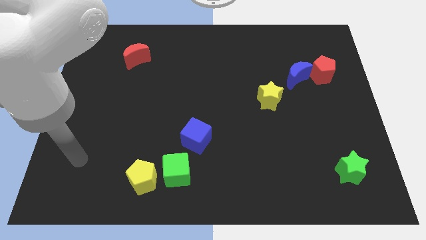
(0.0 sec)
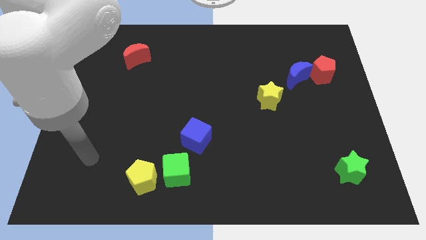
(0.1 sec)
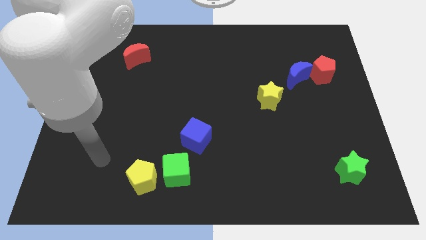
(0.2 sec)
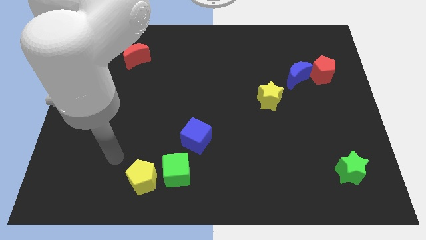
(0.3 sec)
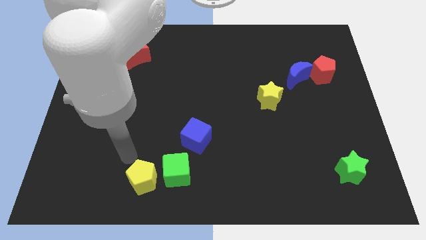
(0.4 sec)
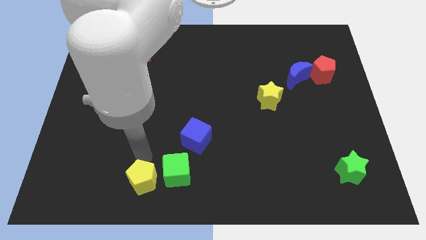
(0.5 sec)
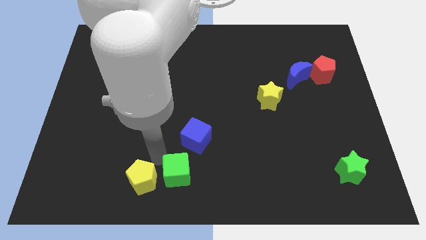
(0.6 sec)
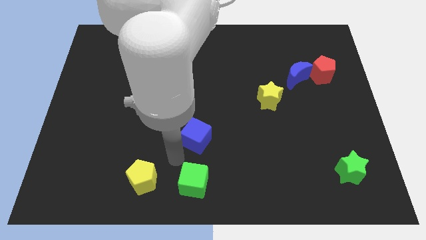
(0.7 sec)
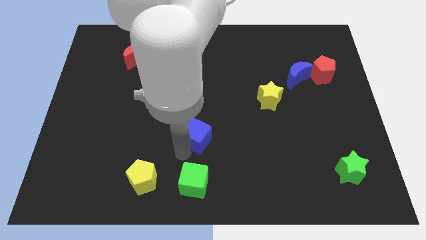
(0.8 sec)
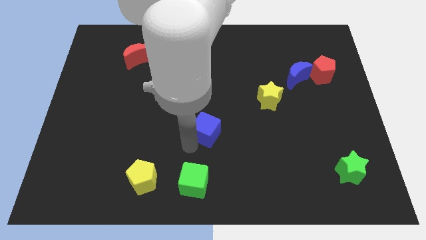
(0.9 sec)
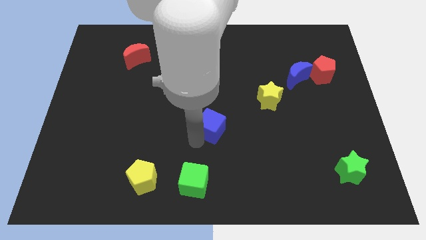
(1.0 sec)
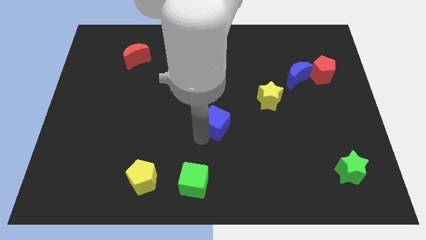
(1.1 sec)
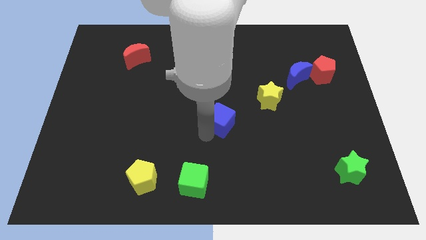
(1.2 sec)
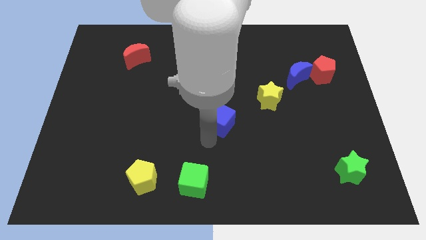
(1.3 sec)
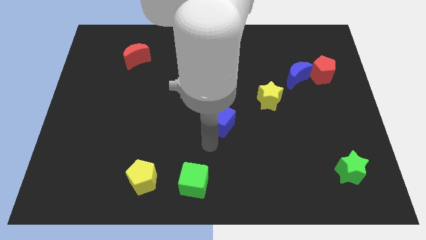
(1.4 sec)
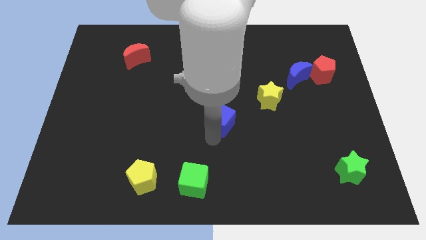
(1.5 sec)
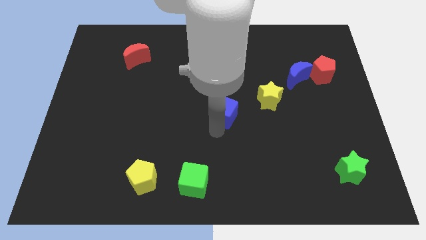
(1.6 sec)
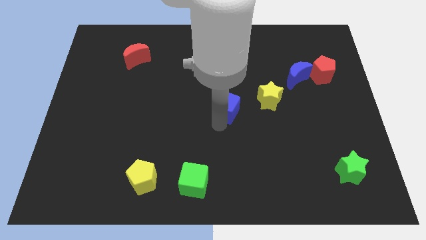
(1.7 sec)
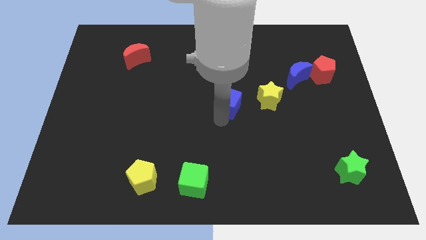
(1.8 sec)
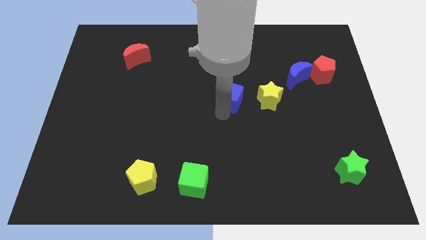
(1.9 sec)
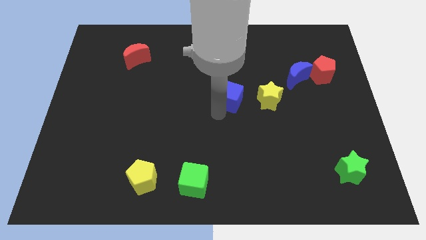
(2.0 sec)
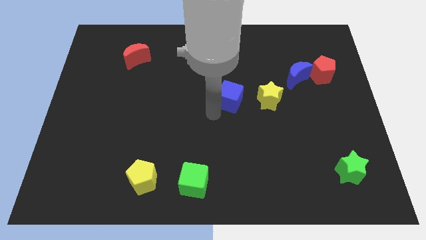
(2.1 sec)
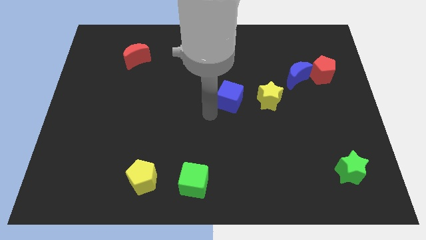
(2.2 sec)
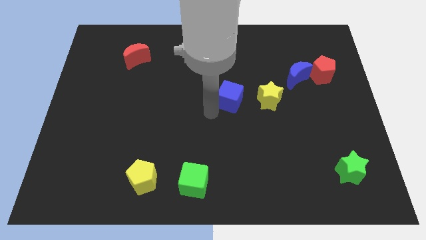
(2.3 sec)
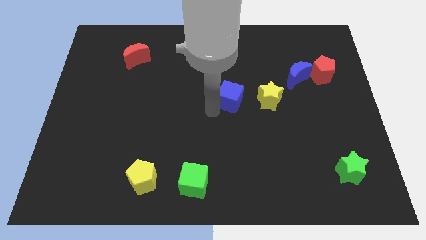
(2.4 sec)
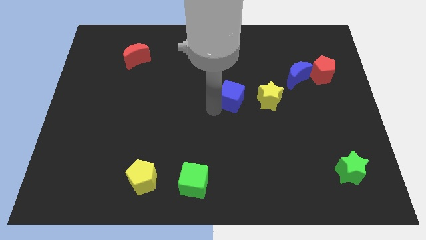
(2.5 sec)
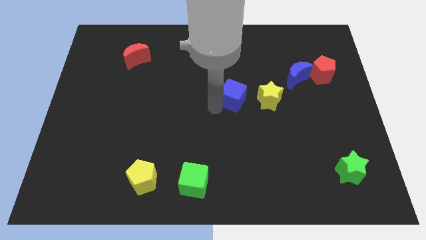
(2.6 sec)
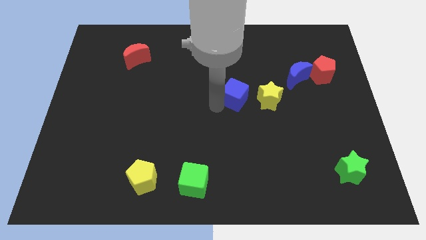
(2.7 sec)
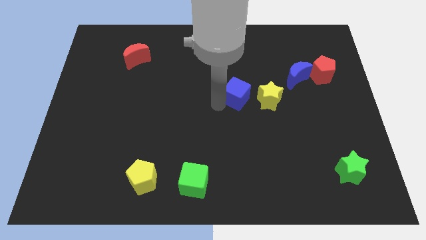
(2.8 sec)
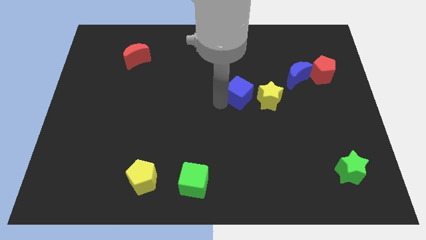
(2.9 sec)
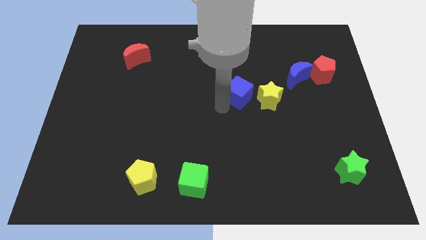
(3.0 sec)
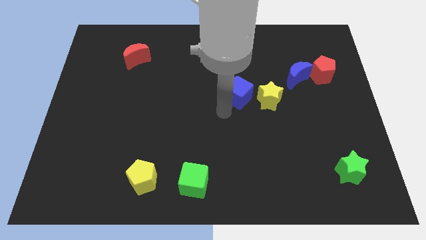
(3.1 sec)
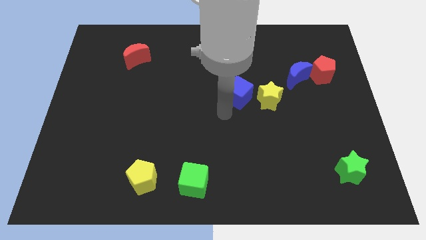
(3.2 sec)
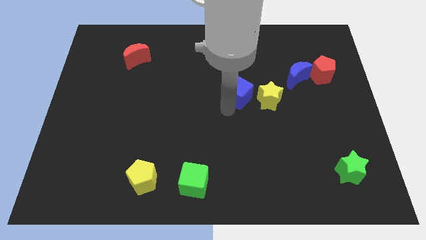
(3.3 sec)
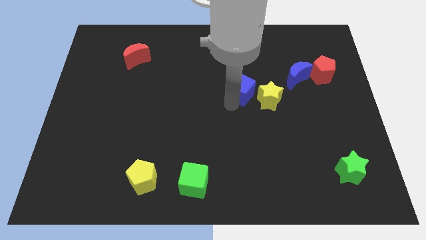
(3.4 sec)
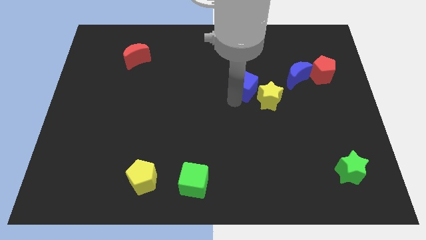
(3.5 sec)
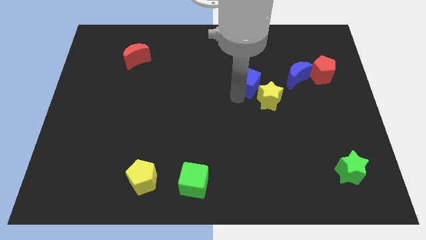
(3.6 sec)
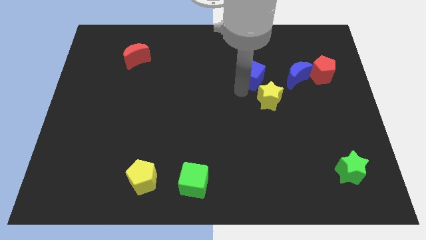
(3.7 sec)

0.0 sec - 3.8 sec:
push the blue cube up and to the right diagonally

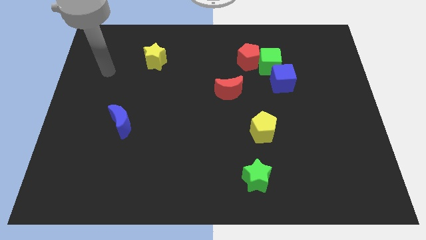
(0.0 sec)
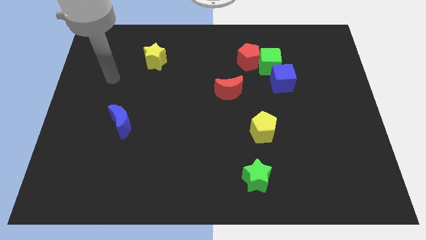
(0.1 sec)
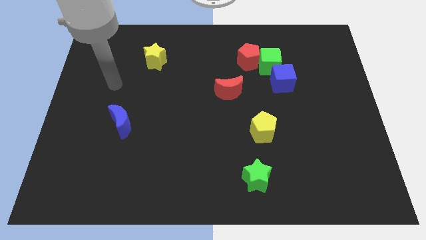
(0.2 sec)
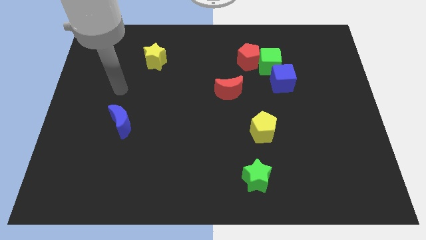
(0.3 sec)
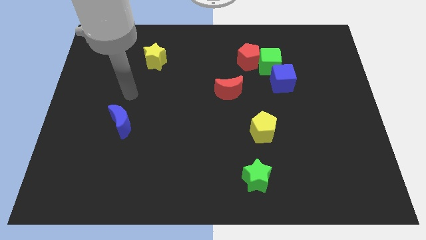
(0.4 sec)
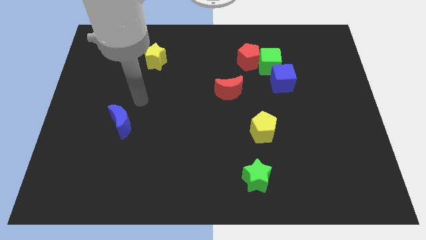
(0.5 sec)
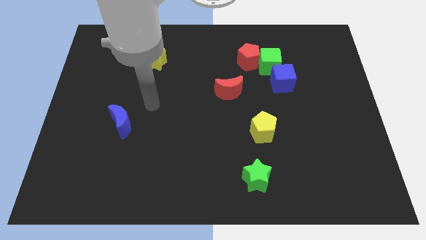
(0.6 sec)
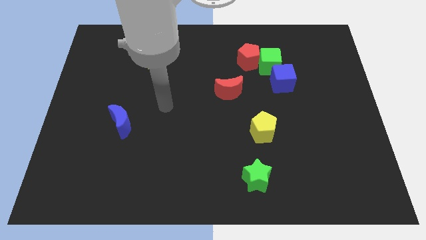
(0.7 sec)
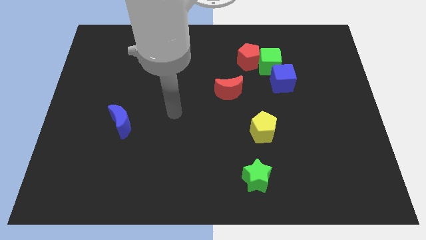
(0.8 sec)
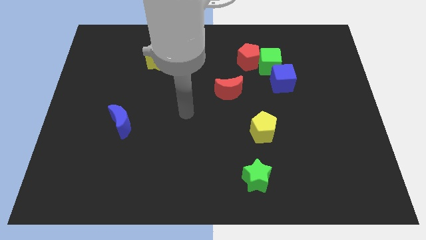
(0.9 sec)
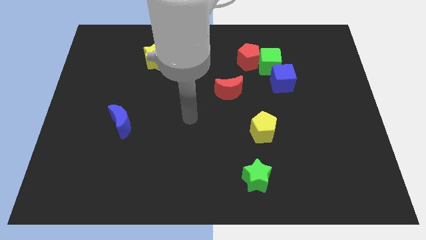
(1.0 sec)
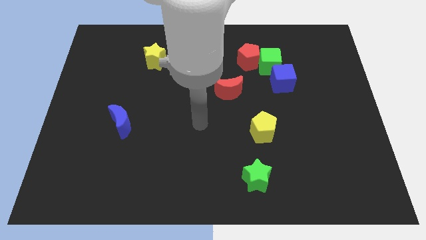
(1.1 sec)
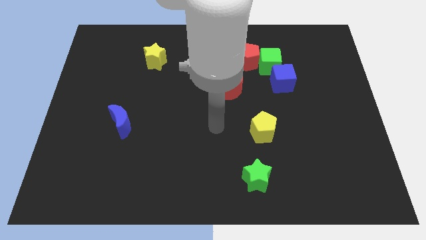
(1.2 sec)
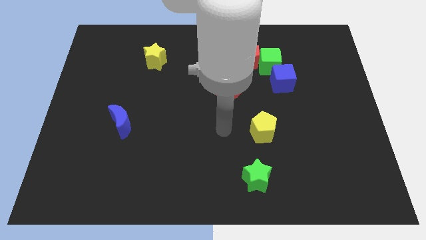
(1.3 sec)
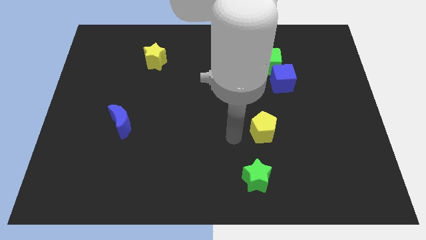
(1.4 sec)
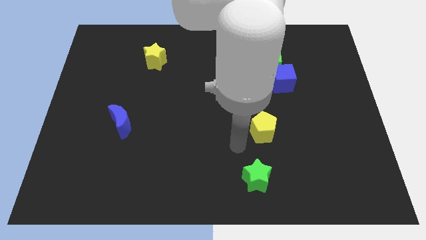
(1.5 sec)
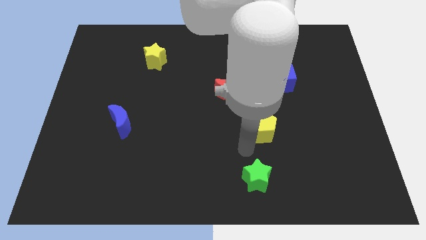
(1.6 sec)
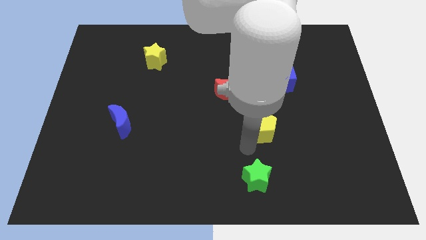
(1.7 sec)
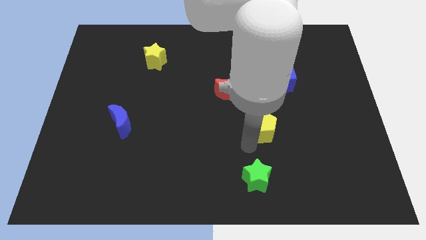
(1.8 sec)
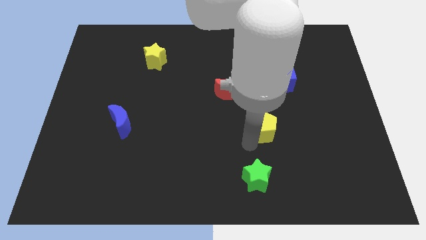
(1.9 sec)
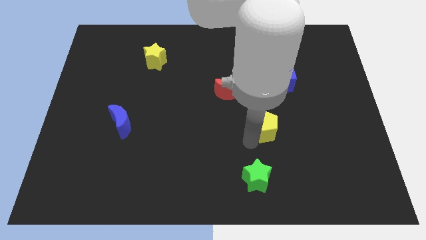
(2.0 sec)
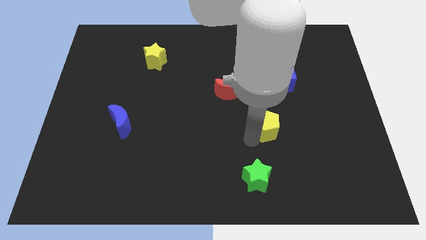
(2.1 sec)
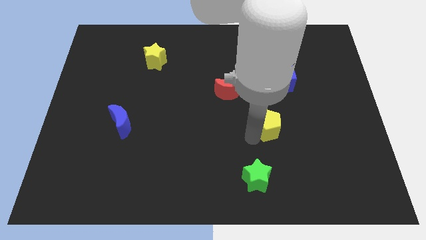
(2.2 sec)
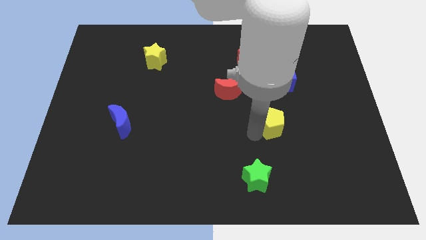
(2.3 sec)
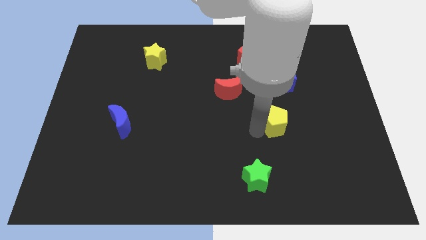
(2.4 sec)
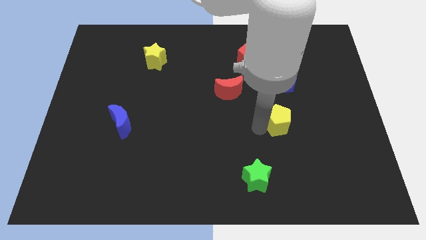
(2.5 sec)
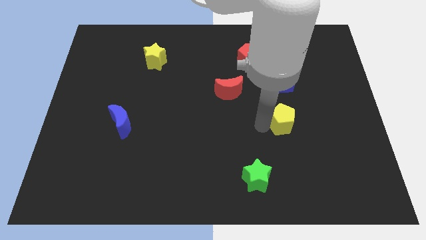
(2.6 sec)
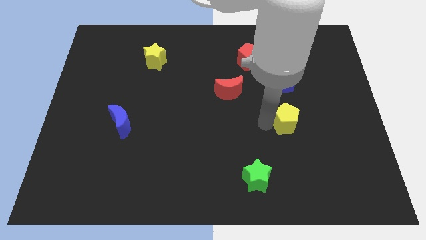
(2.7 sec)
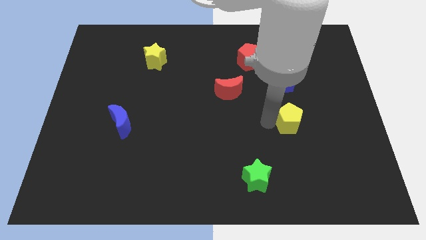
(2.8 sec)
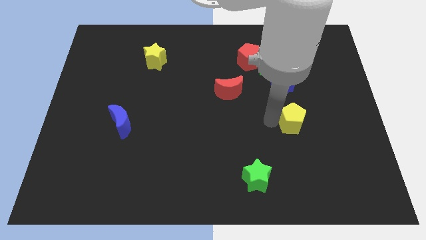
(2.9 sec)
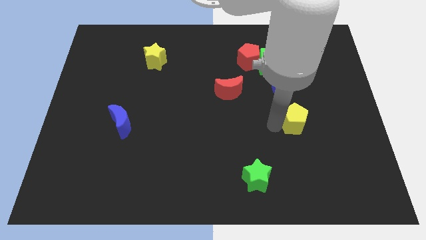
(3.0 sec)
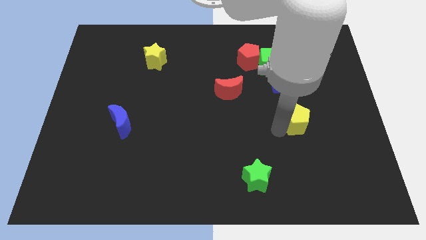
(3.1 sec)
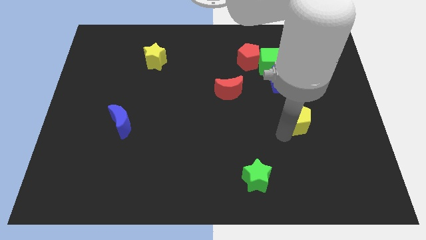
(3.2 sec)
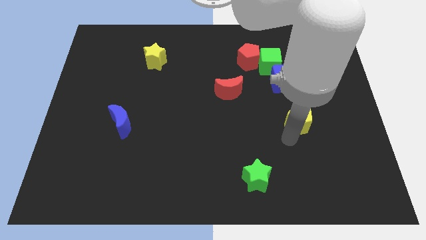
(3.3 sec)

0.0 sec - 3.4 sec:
move the yellow pentagon a little bit upwards and then right

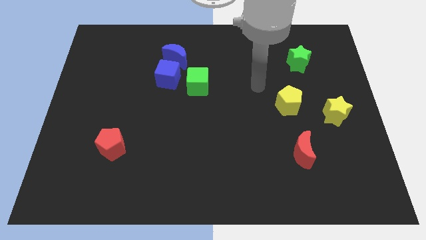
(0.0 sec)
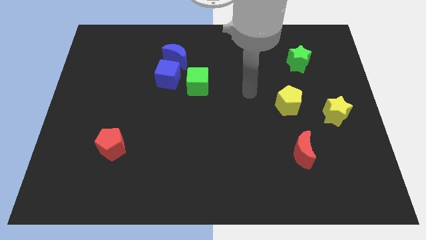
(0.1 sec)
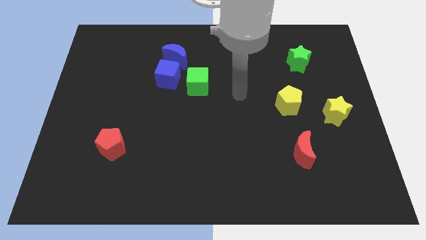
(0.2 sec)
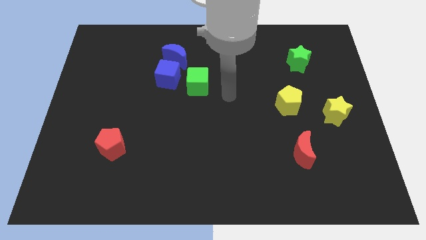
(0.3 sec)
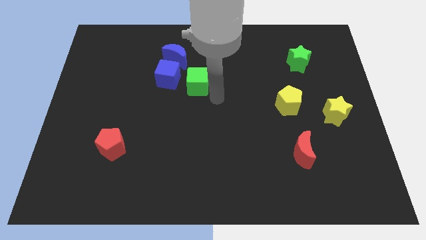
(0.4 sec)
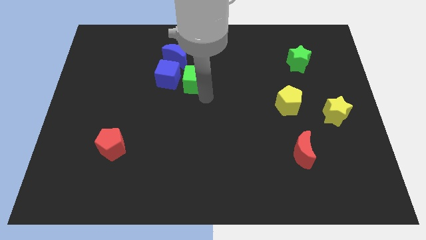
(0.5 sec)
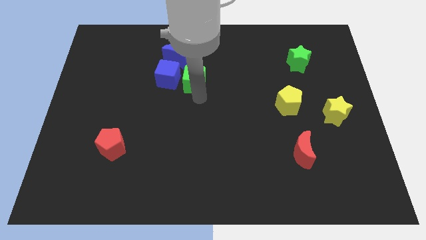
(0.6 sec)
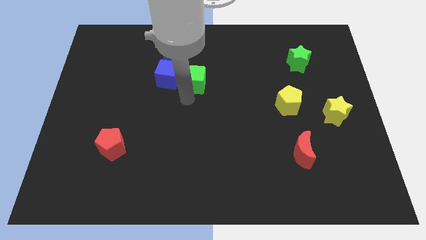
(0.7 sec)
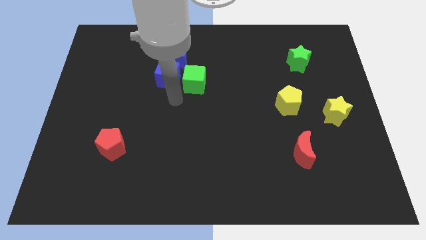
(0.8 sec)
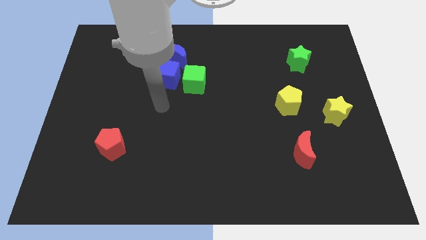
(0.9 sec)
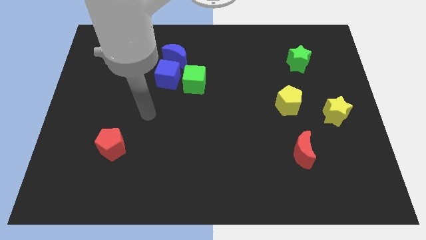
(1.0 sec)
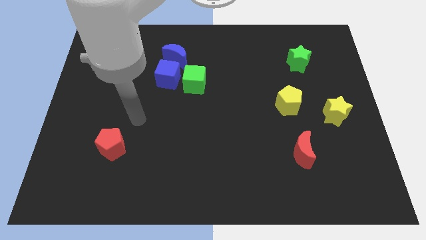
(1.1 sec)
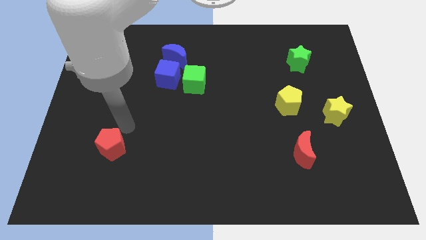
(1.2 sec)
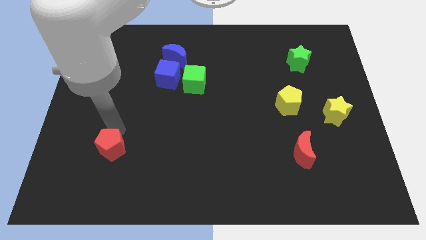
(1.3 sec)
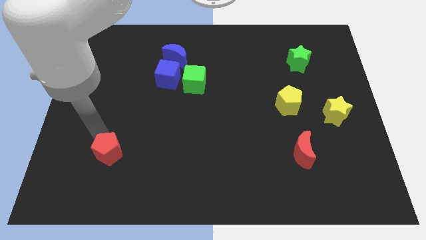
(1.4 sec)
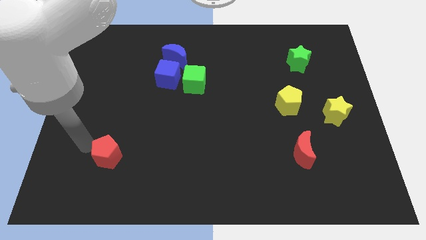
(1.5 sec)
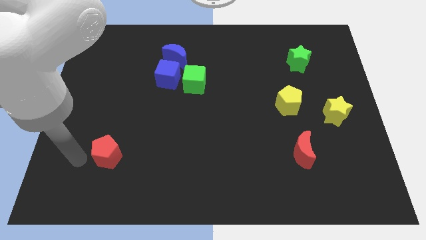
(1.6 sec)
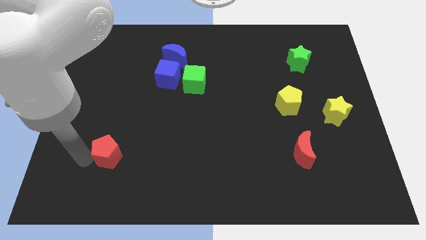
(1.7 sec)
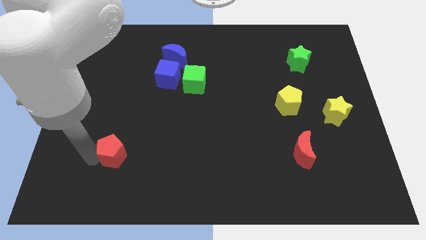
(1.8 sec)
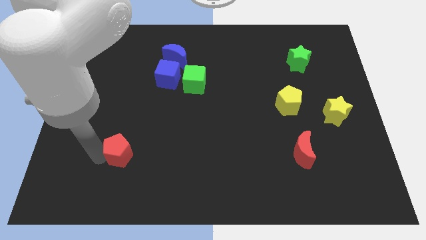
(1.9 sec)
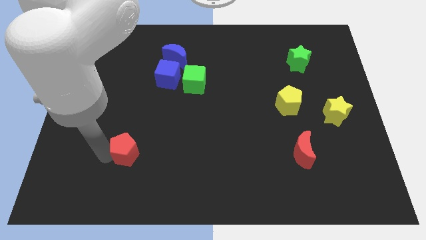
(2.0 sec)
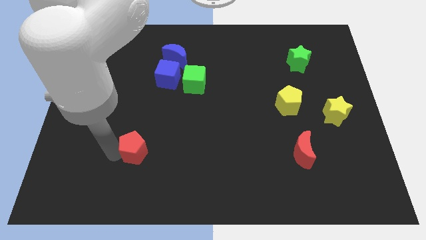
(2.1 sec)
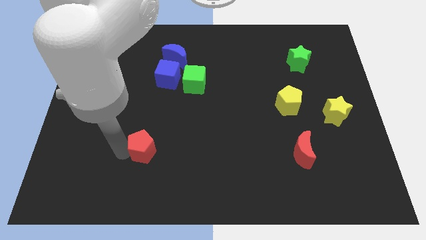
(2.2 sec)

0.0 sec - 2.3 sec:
slightly push the red pentagon right
